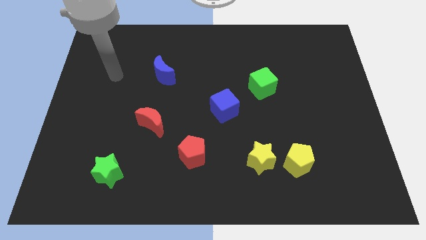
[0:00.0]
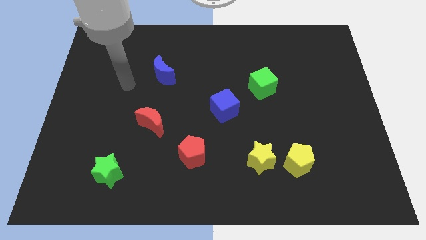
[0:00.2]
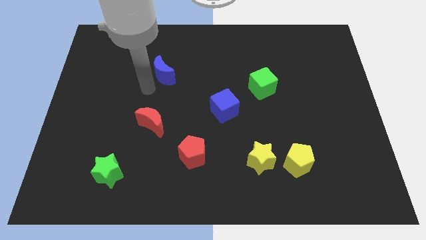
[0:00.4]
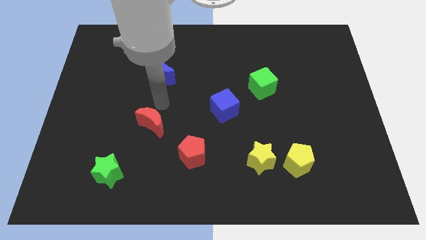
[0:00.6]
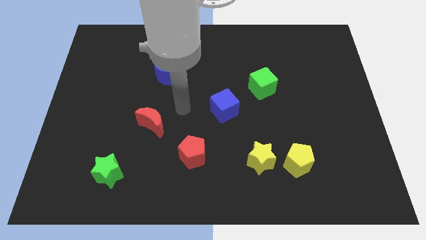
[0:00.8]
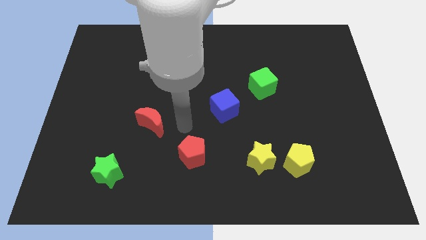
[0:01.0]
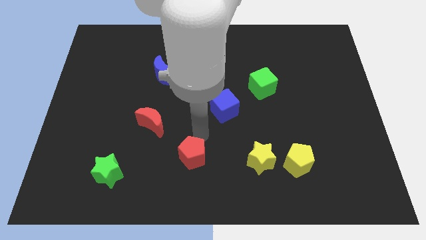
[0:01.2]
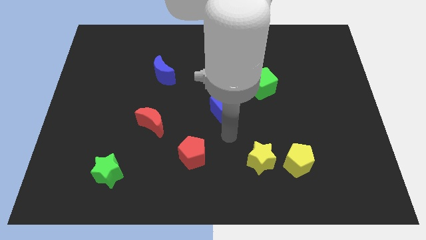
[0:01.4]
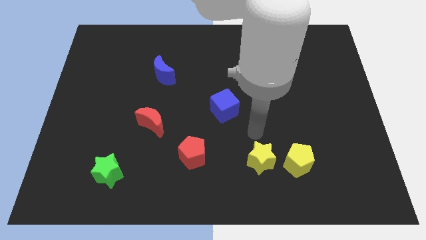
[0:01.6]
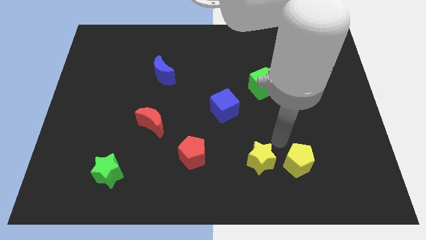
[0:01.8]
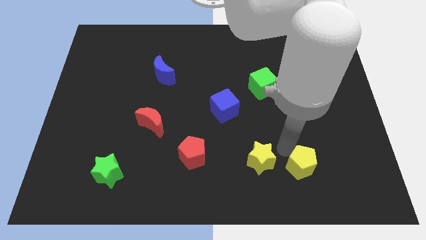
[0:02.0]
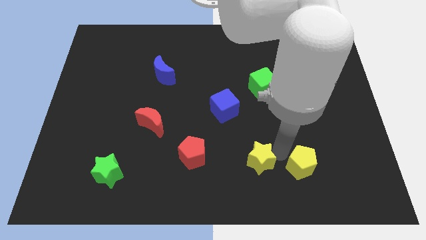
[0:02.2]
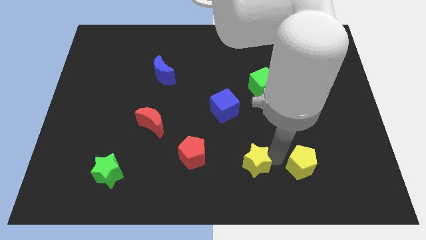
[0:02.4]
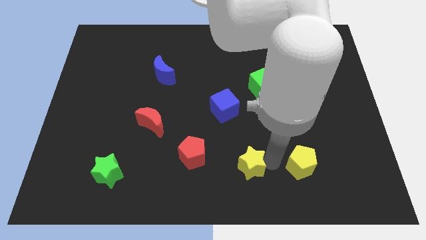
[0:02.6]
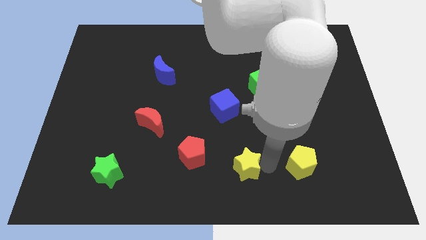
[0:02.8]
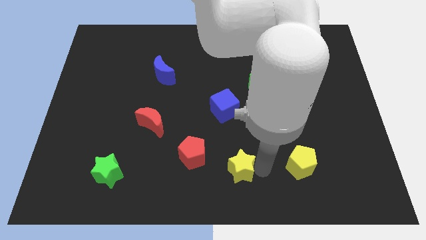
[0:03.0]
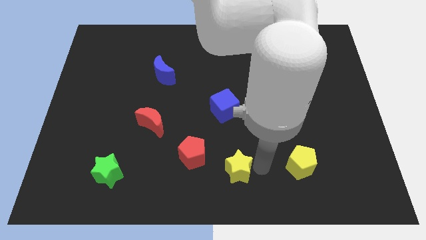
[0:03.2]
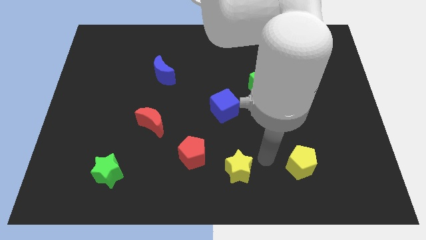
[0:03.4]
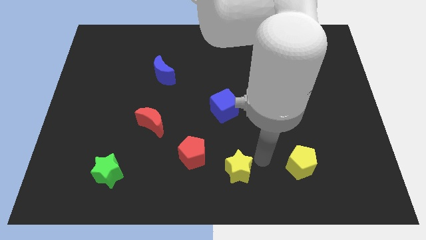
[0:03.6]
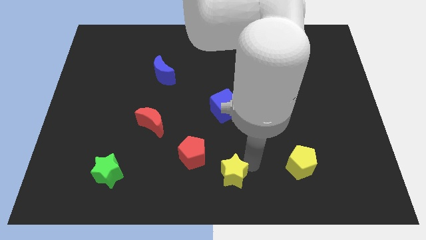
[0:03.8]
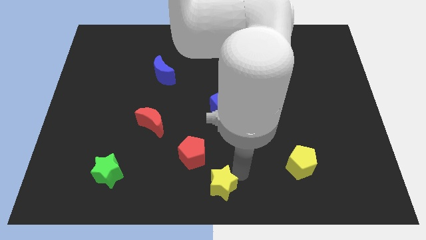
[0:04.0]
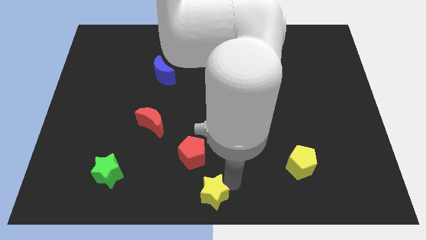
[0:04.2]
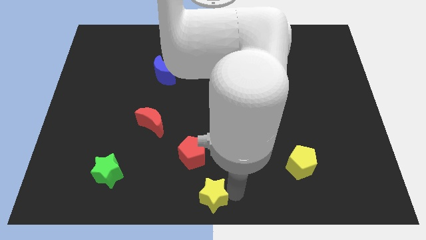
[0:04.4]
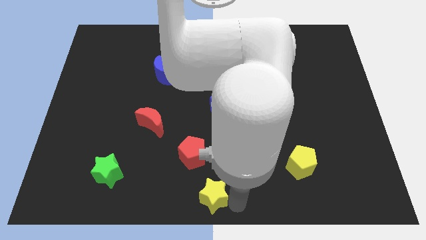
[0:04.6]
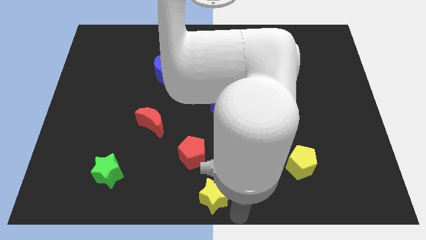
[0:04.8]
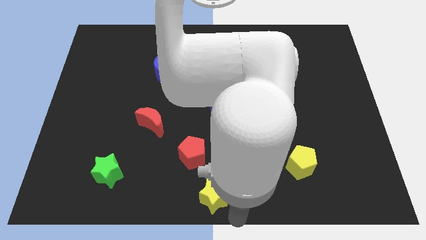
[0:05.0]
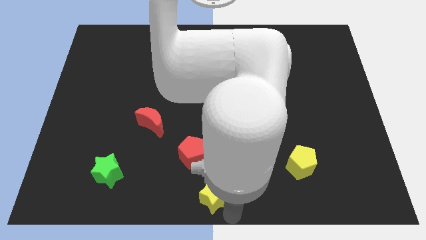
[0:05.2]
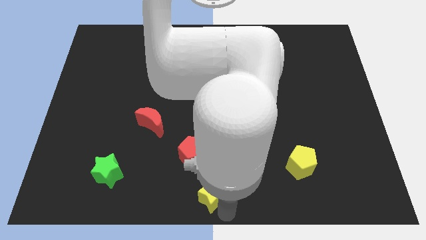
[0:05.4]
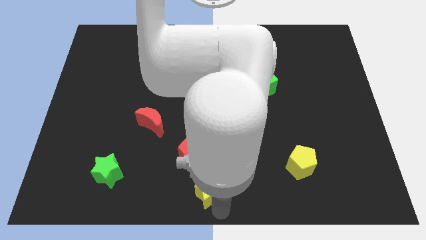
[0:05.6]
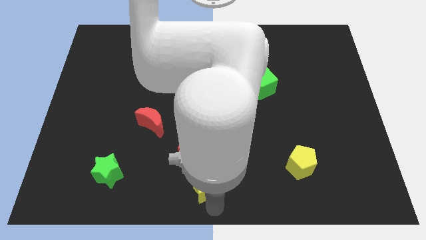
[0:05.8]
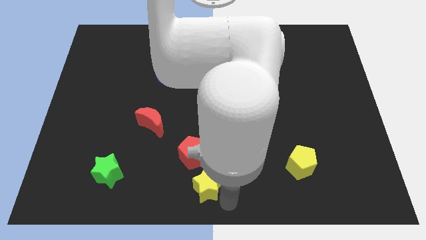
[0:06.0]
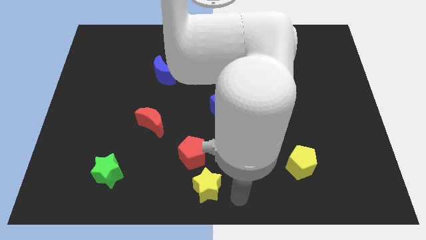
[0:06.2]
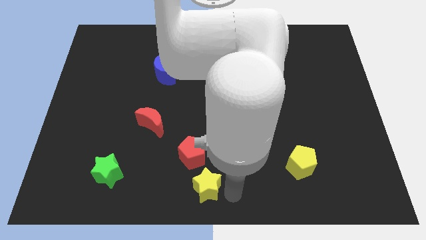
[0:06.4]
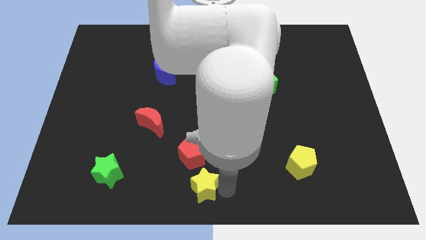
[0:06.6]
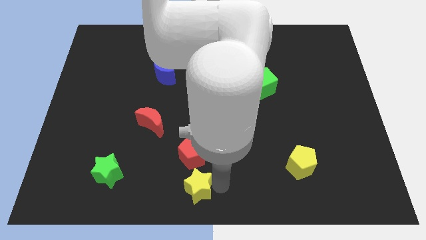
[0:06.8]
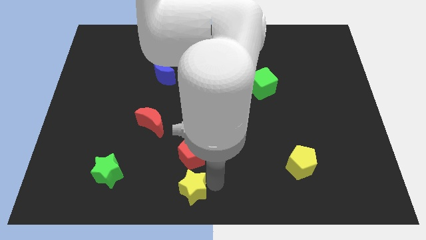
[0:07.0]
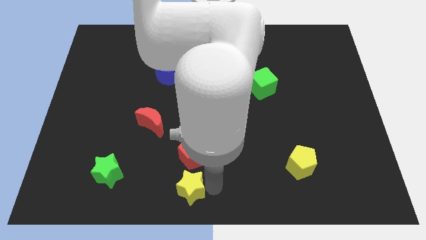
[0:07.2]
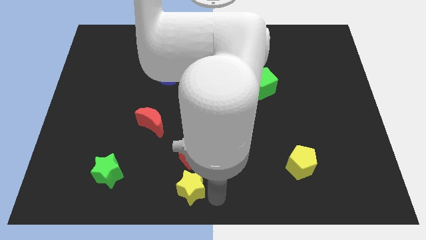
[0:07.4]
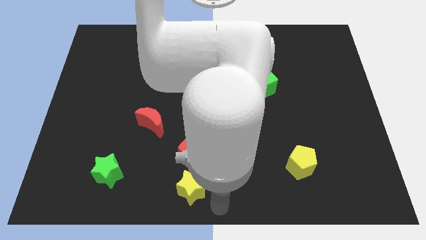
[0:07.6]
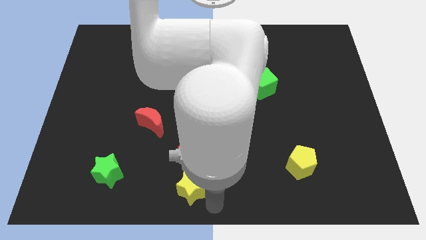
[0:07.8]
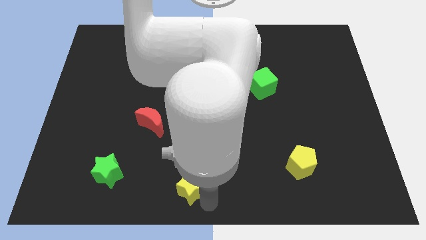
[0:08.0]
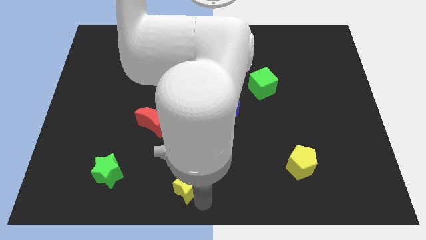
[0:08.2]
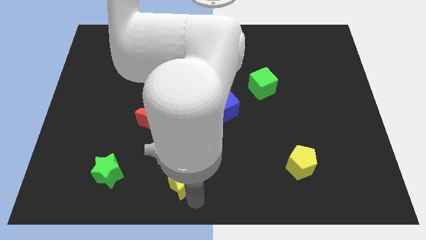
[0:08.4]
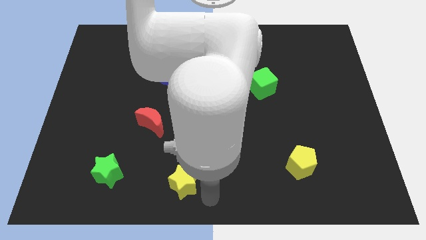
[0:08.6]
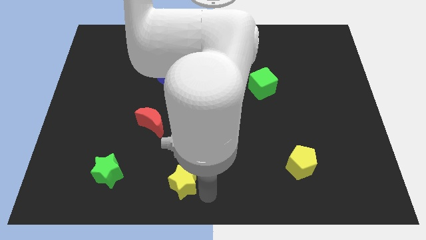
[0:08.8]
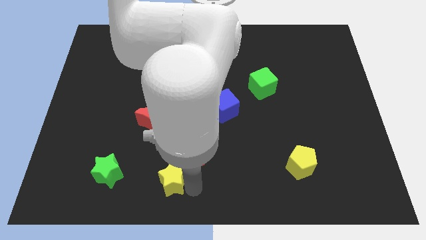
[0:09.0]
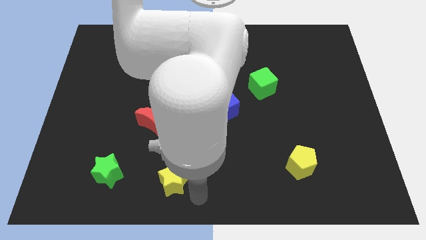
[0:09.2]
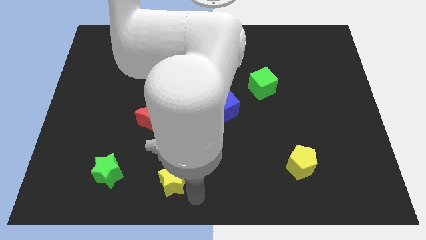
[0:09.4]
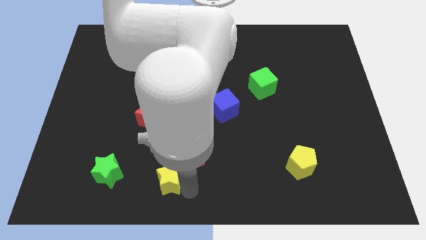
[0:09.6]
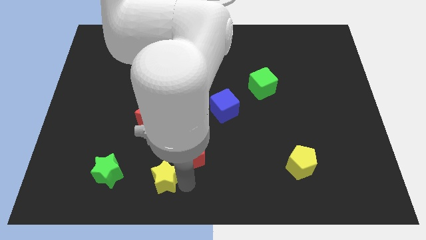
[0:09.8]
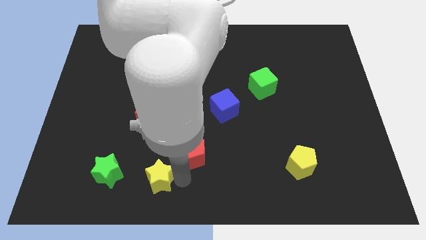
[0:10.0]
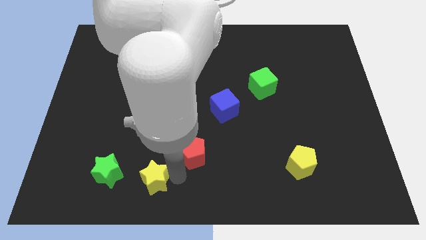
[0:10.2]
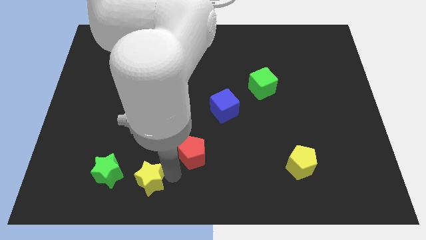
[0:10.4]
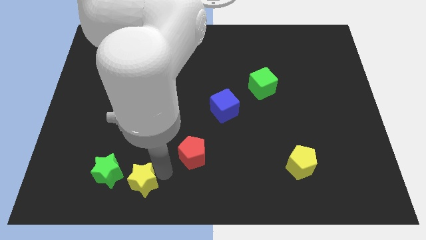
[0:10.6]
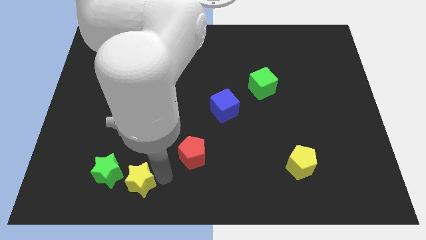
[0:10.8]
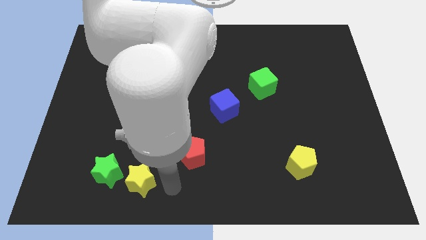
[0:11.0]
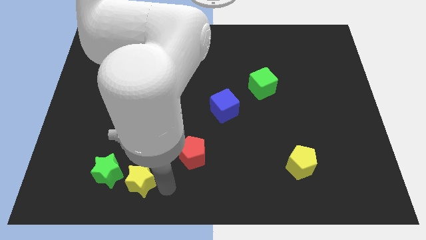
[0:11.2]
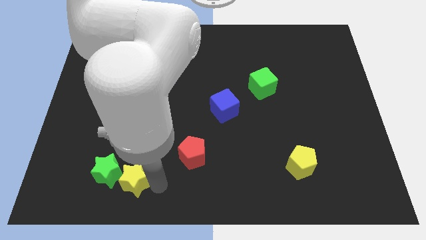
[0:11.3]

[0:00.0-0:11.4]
put the yellow star next to the green star
